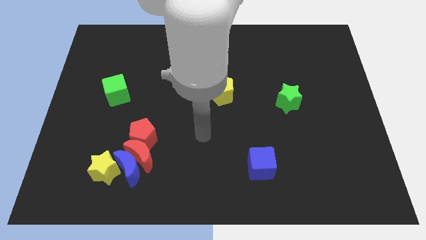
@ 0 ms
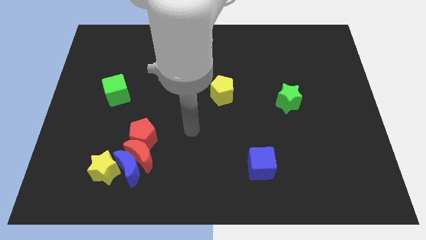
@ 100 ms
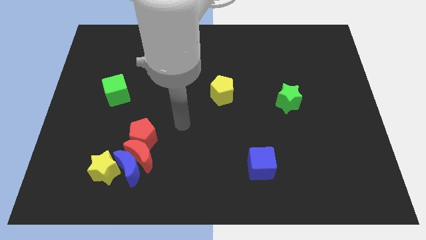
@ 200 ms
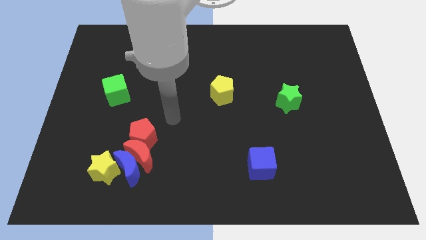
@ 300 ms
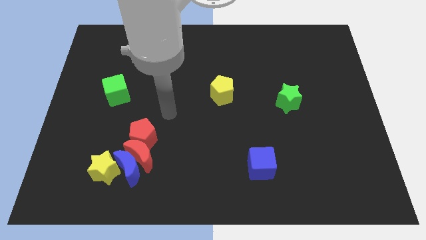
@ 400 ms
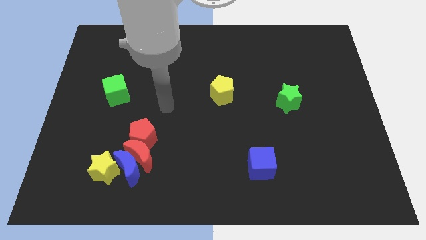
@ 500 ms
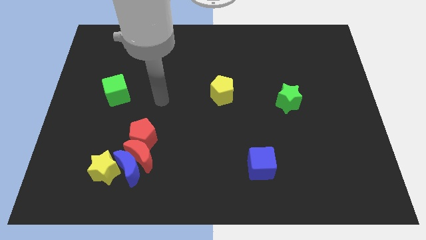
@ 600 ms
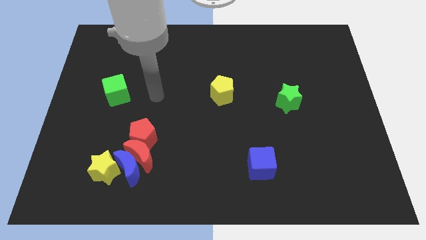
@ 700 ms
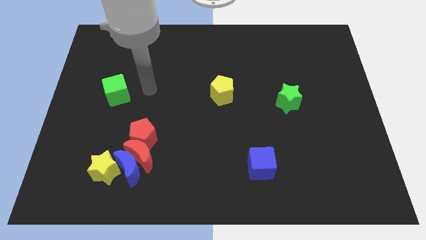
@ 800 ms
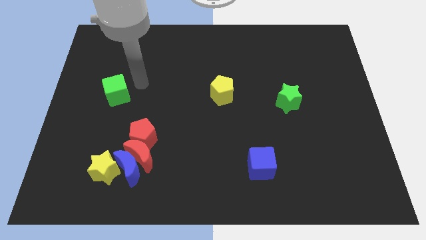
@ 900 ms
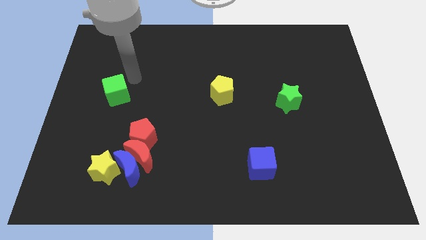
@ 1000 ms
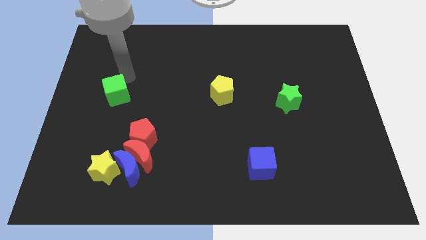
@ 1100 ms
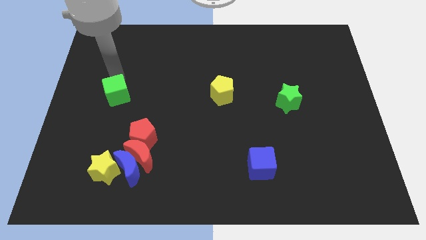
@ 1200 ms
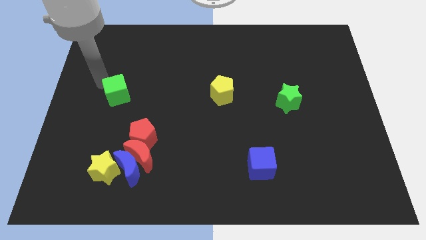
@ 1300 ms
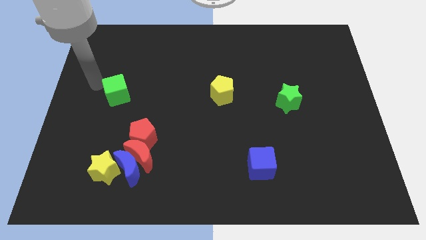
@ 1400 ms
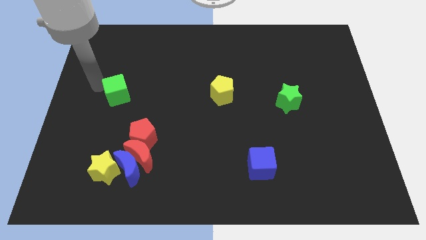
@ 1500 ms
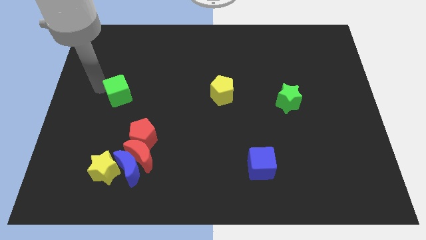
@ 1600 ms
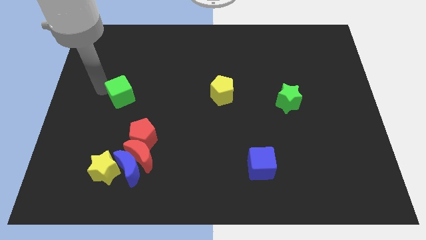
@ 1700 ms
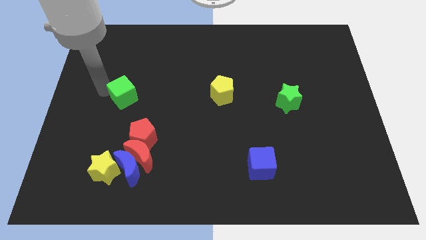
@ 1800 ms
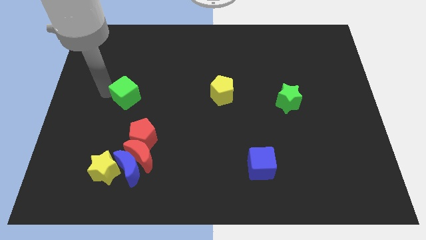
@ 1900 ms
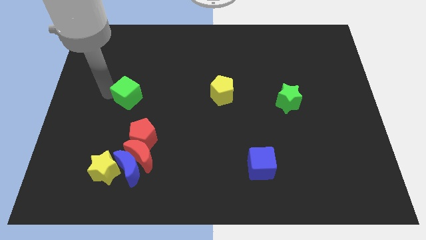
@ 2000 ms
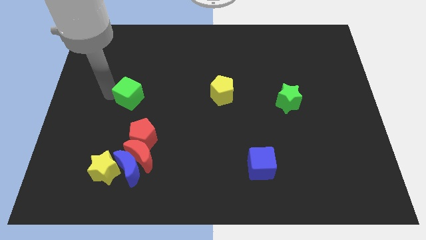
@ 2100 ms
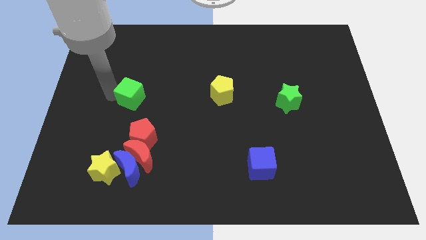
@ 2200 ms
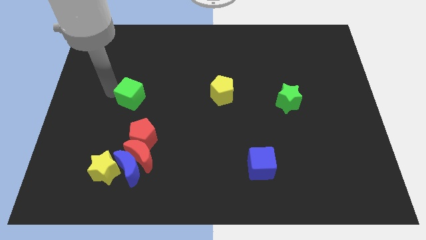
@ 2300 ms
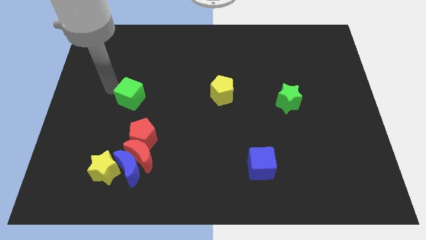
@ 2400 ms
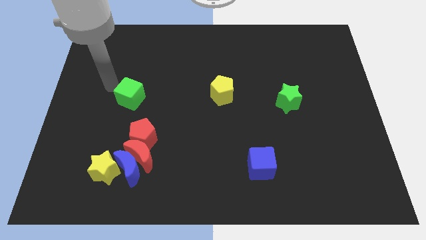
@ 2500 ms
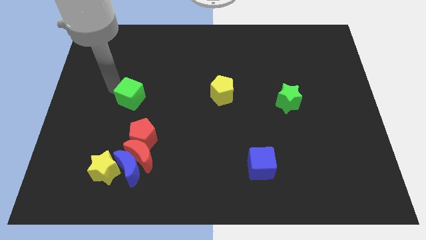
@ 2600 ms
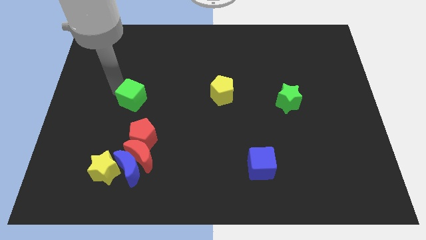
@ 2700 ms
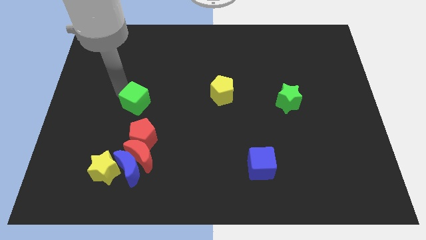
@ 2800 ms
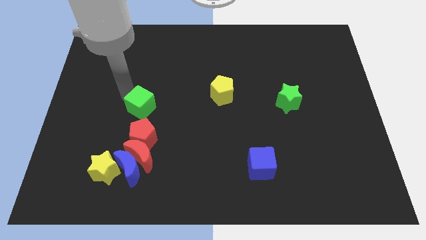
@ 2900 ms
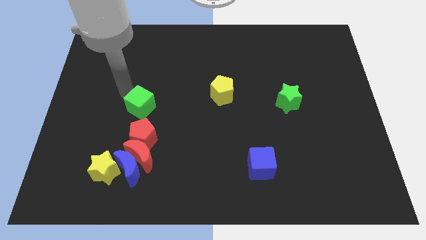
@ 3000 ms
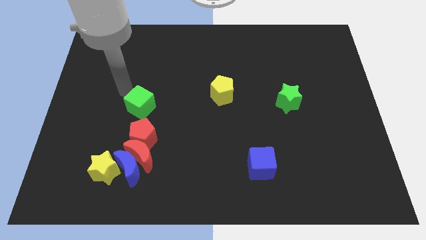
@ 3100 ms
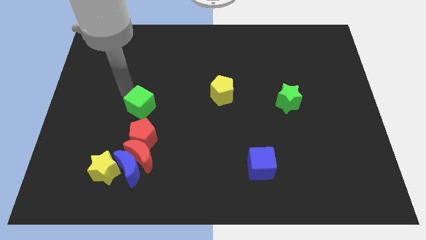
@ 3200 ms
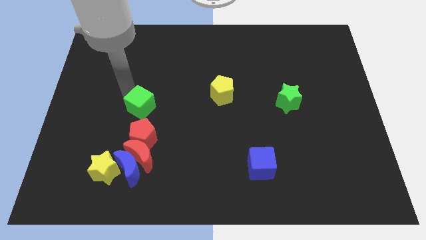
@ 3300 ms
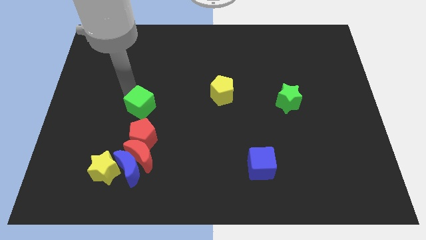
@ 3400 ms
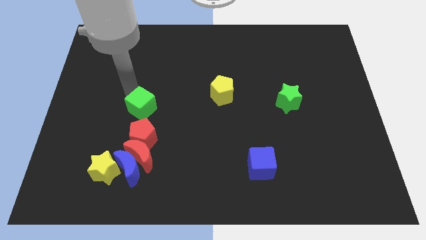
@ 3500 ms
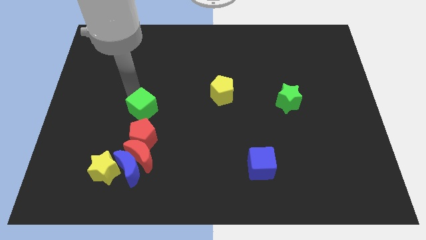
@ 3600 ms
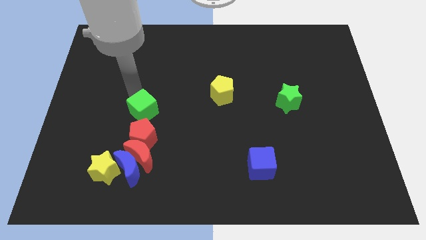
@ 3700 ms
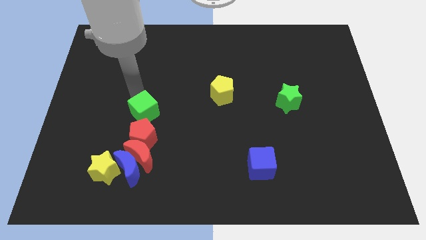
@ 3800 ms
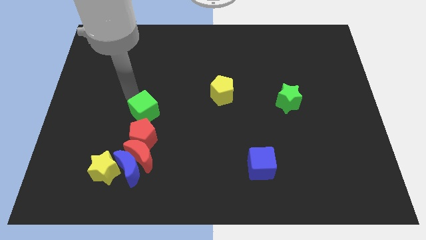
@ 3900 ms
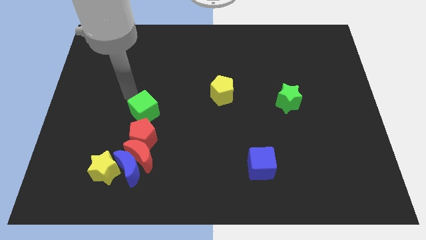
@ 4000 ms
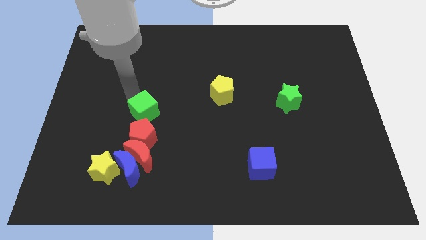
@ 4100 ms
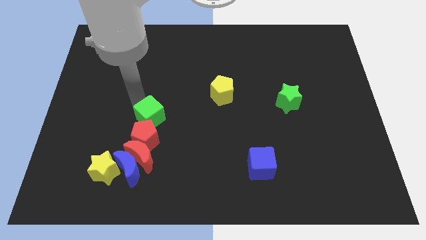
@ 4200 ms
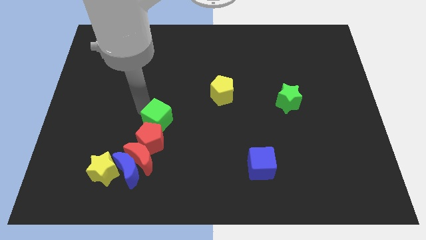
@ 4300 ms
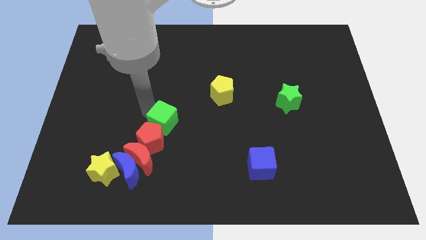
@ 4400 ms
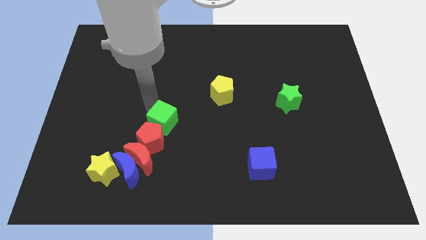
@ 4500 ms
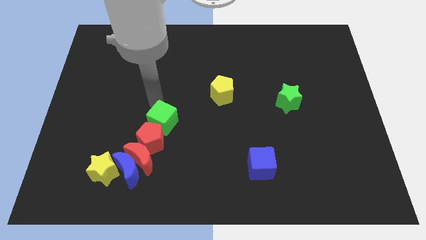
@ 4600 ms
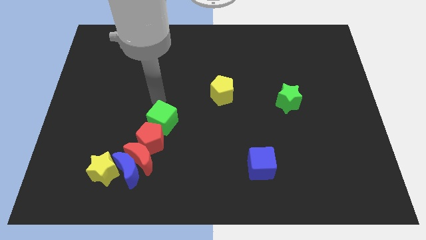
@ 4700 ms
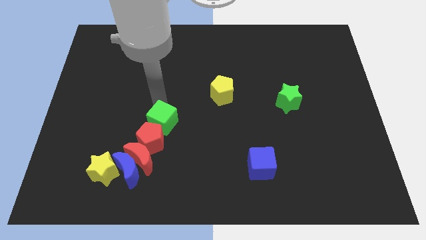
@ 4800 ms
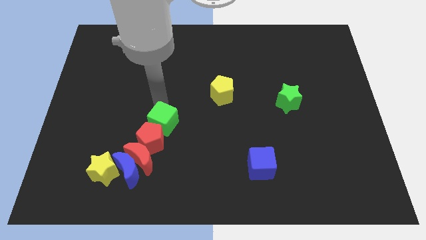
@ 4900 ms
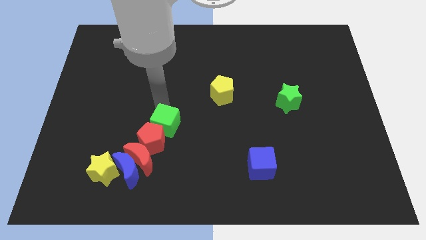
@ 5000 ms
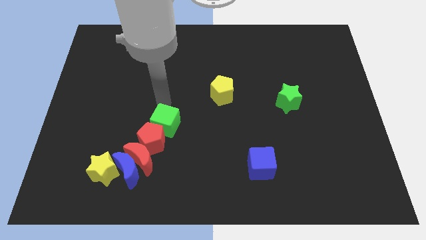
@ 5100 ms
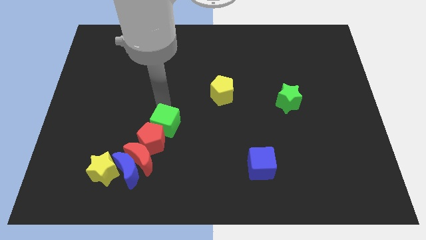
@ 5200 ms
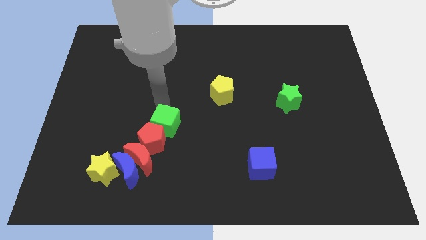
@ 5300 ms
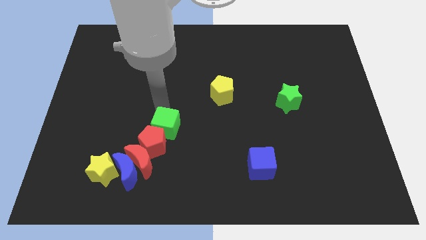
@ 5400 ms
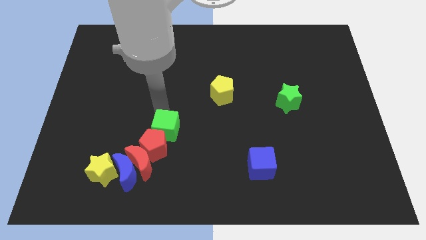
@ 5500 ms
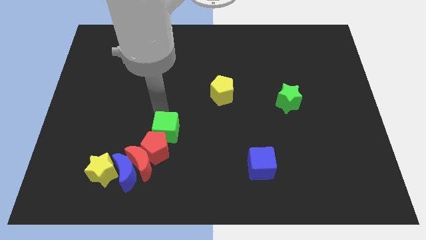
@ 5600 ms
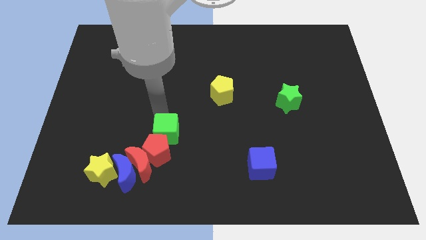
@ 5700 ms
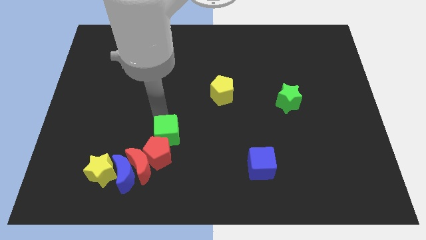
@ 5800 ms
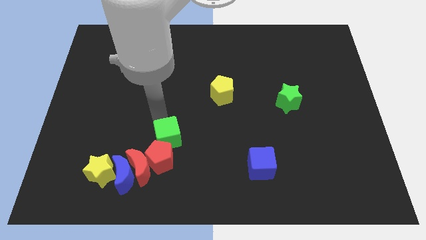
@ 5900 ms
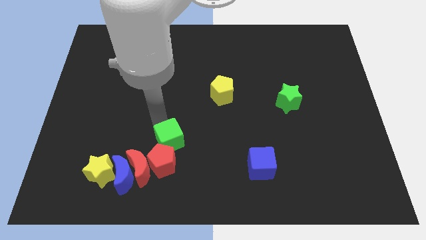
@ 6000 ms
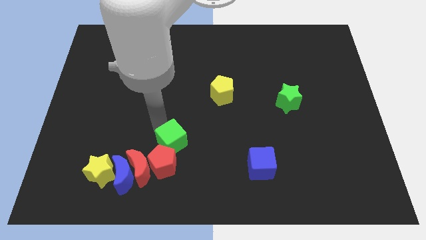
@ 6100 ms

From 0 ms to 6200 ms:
move the green cube downwards and to the right diagonally

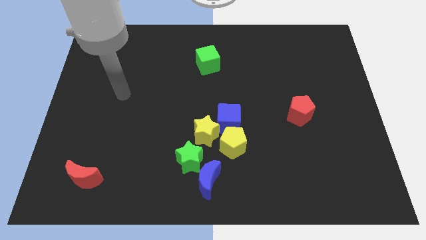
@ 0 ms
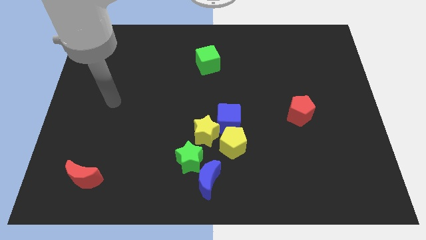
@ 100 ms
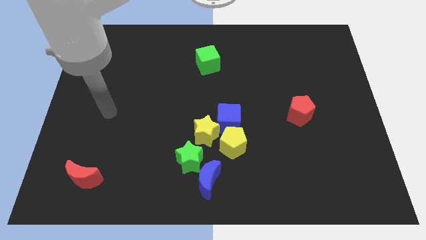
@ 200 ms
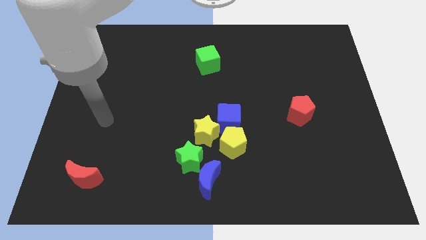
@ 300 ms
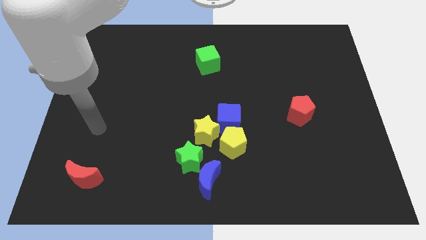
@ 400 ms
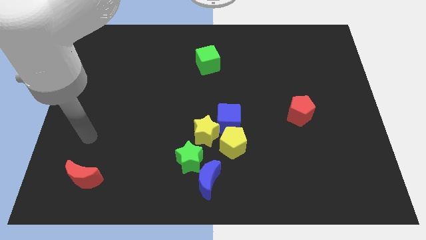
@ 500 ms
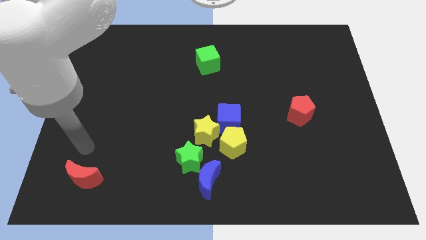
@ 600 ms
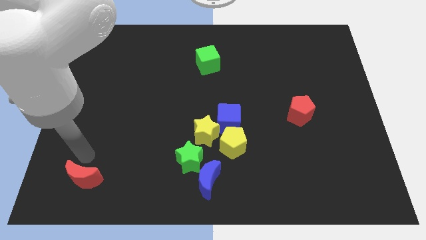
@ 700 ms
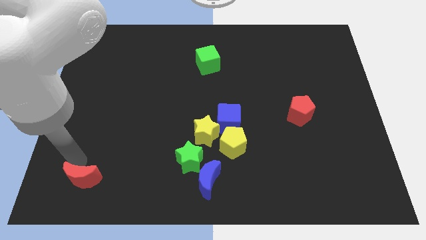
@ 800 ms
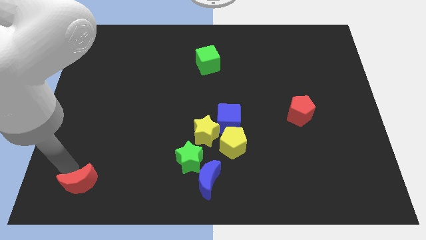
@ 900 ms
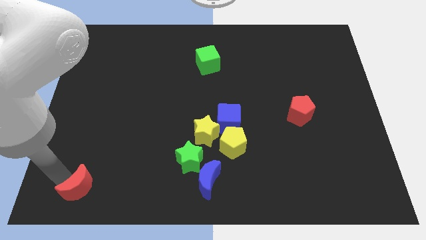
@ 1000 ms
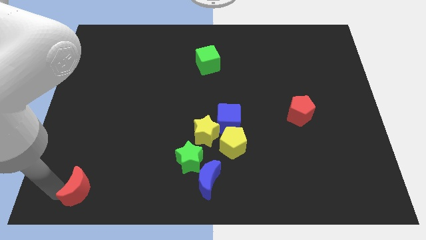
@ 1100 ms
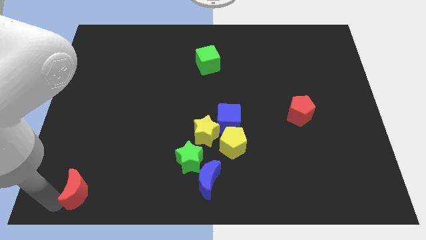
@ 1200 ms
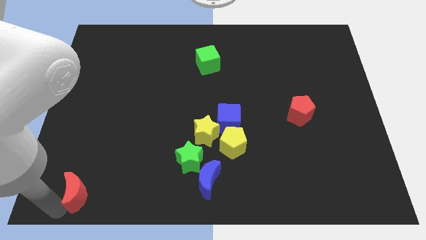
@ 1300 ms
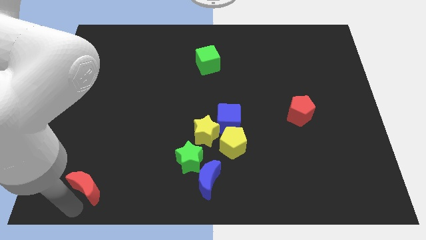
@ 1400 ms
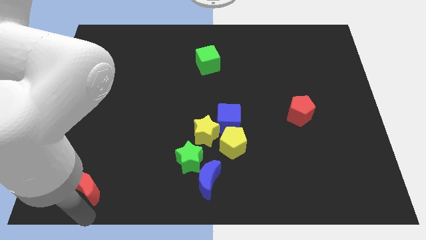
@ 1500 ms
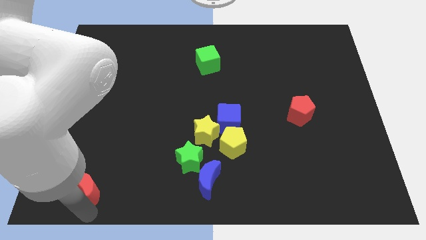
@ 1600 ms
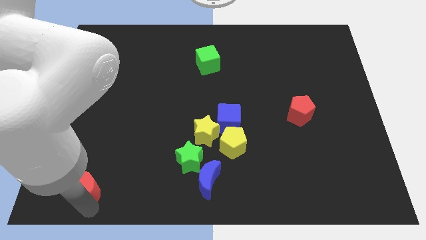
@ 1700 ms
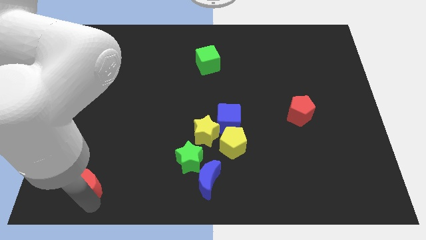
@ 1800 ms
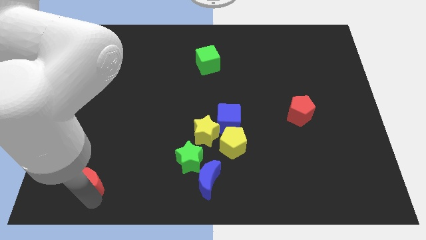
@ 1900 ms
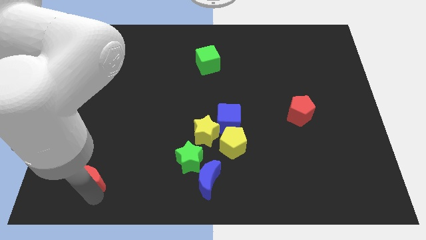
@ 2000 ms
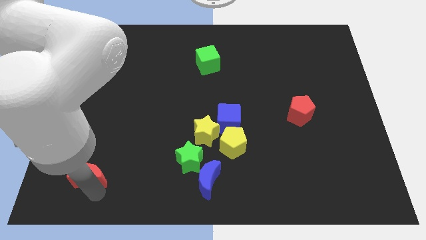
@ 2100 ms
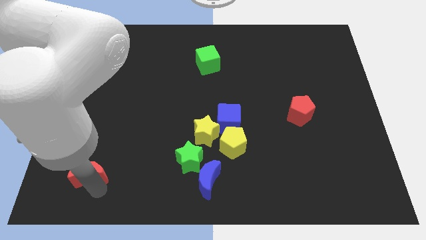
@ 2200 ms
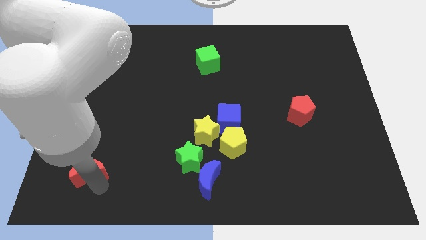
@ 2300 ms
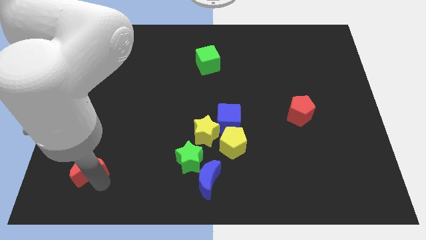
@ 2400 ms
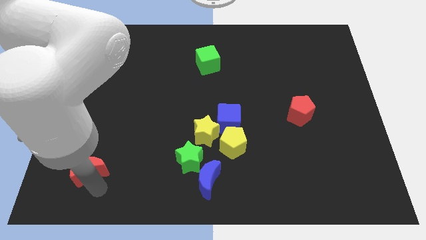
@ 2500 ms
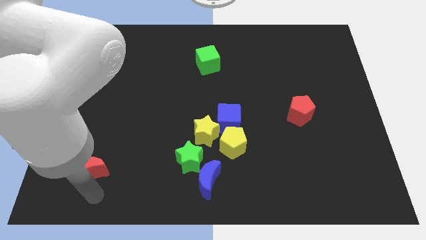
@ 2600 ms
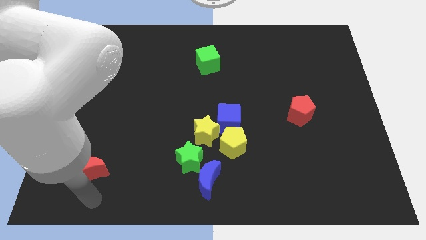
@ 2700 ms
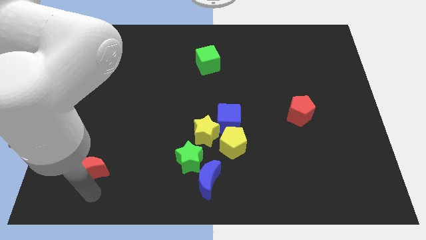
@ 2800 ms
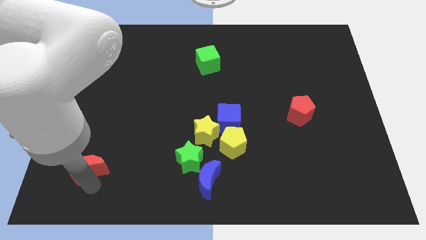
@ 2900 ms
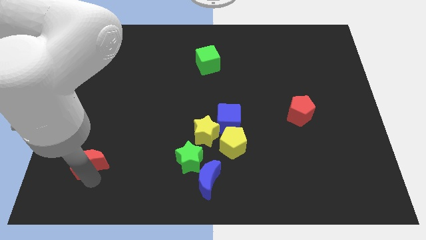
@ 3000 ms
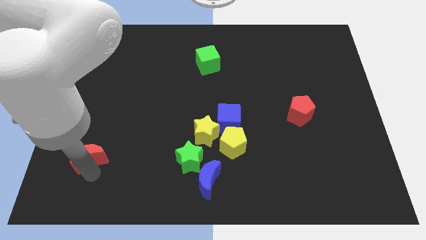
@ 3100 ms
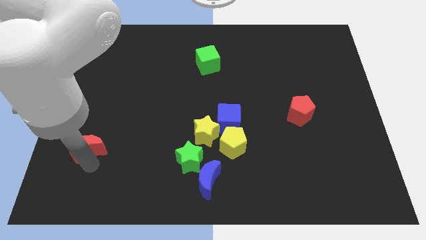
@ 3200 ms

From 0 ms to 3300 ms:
slide the red moon somewhat upwards
